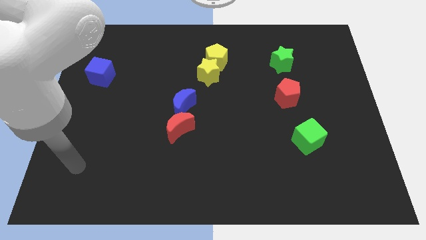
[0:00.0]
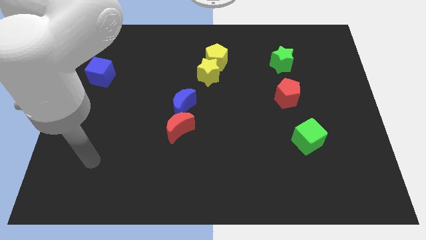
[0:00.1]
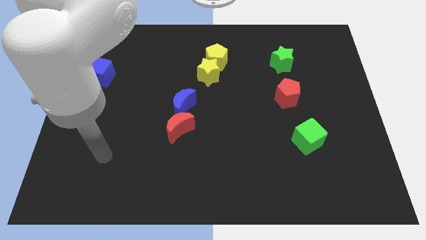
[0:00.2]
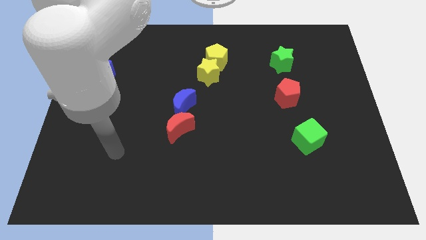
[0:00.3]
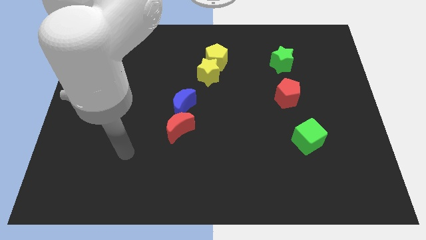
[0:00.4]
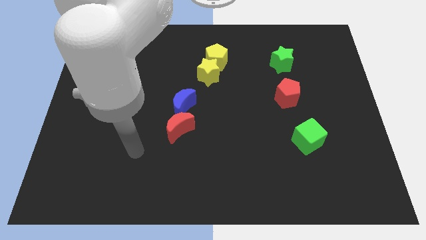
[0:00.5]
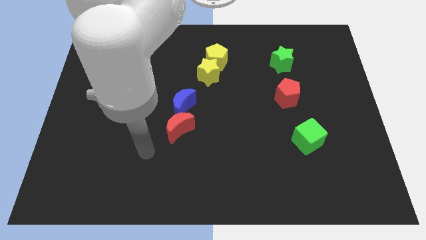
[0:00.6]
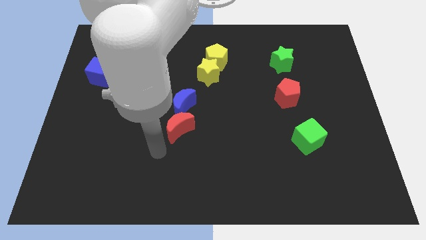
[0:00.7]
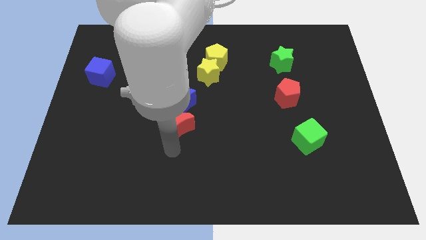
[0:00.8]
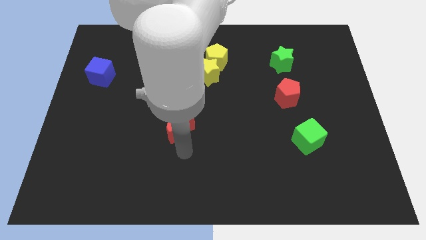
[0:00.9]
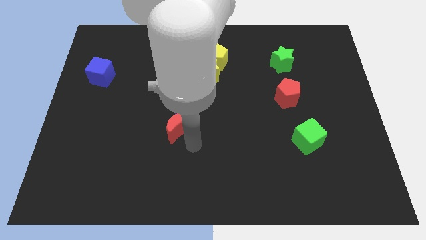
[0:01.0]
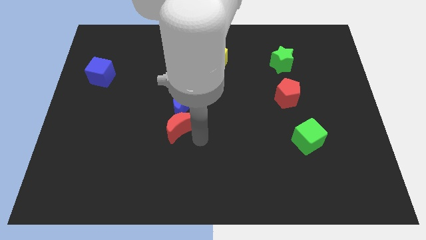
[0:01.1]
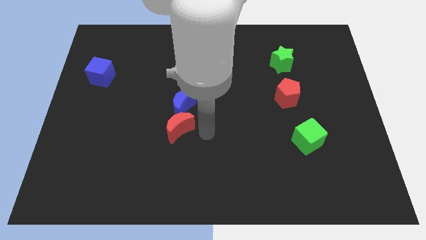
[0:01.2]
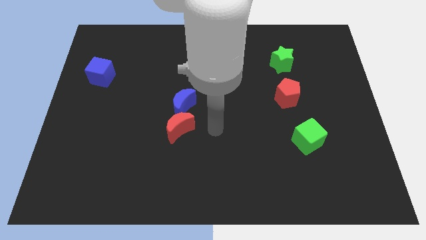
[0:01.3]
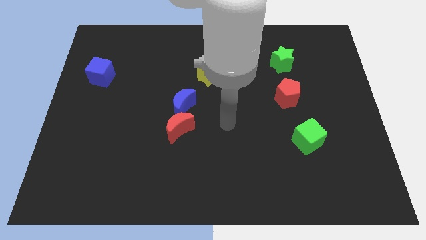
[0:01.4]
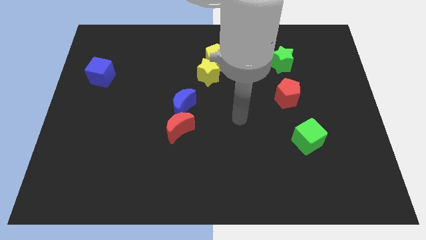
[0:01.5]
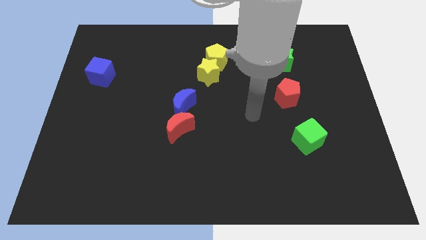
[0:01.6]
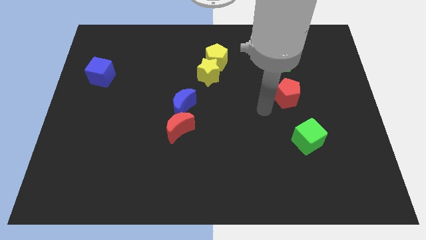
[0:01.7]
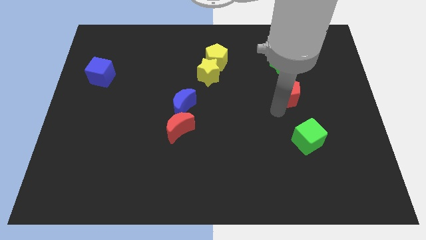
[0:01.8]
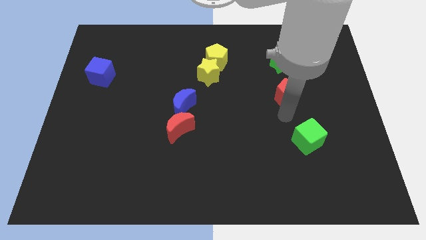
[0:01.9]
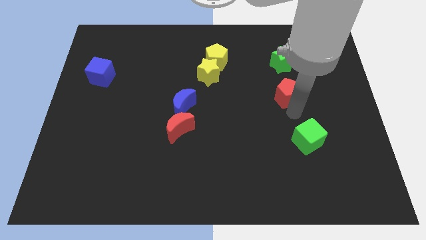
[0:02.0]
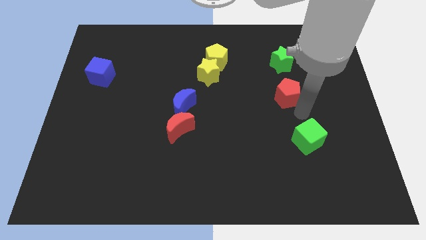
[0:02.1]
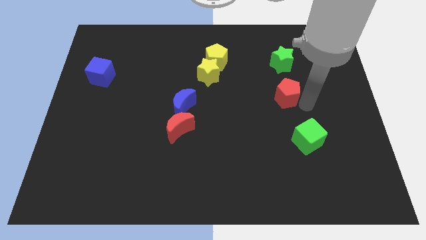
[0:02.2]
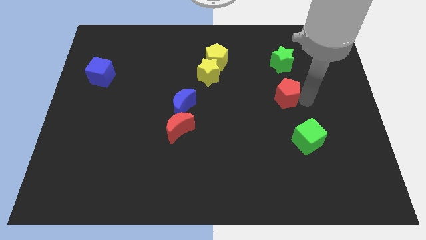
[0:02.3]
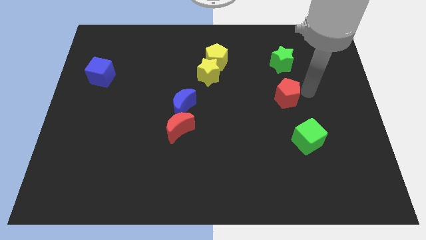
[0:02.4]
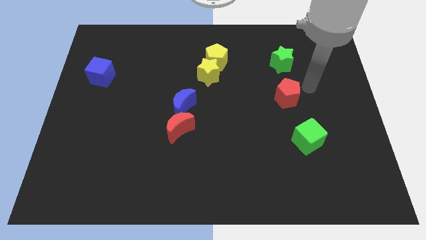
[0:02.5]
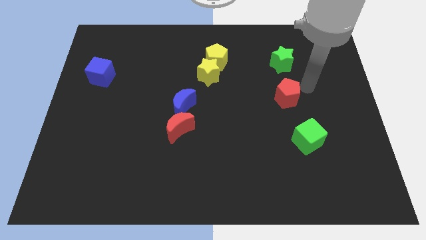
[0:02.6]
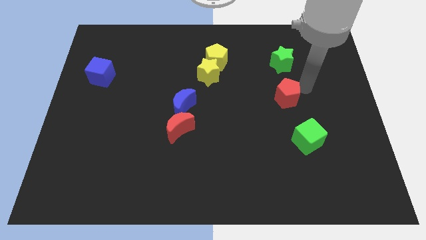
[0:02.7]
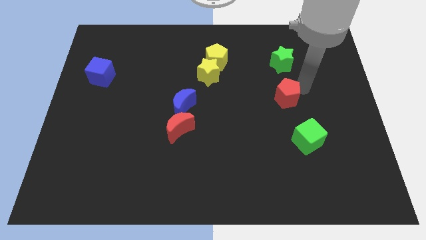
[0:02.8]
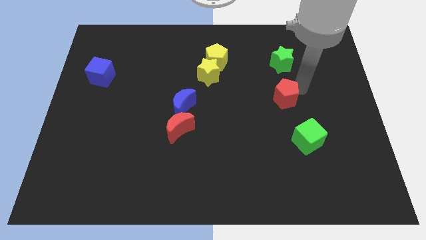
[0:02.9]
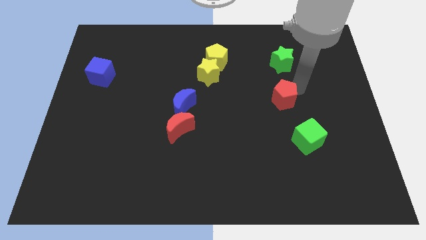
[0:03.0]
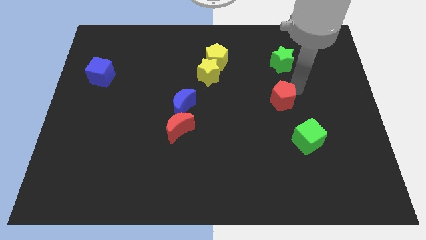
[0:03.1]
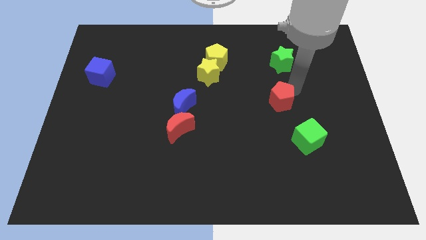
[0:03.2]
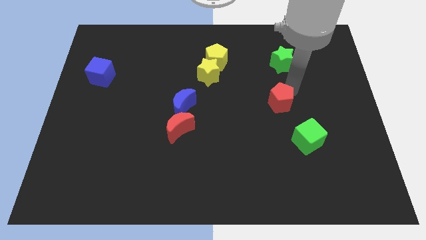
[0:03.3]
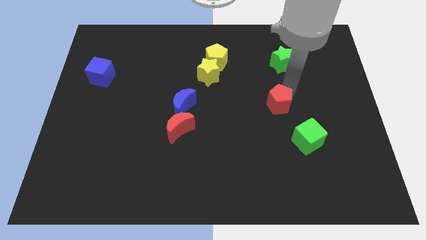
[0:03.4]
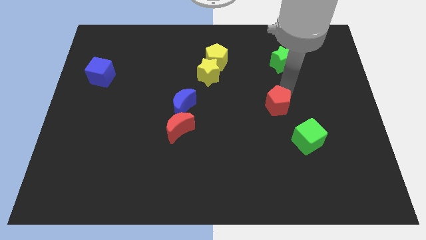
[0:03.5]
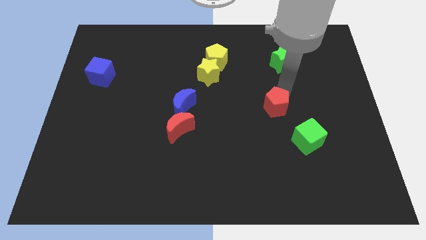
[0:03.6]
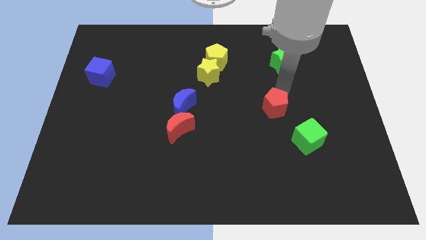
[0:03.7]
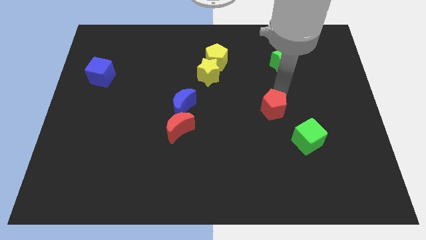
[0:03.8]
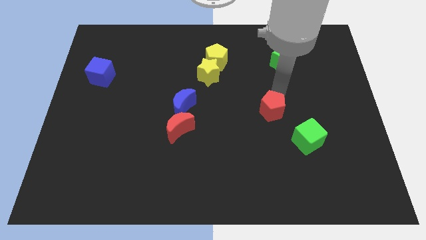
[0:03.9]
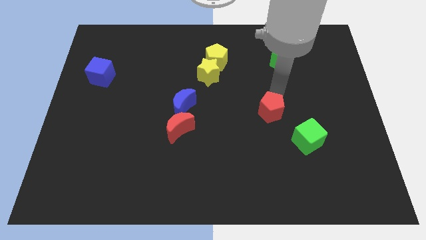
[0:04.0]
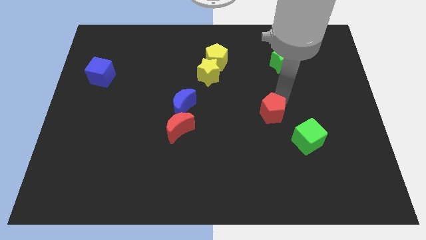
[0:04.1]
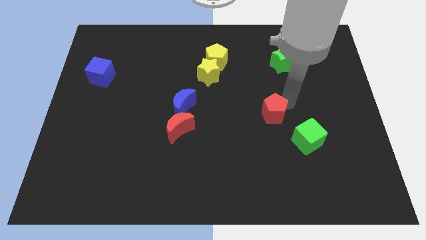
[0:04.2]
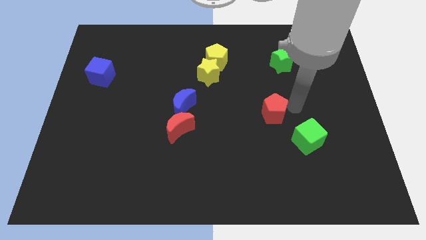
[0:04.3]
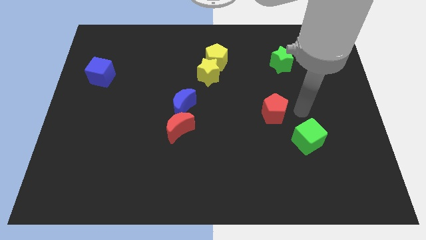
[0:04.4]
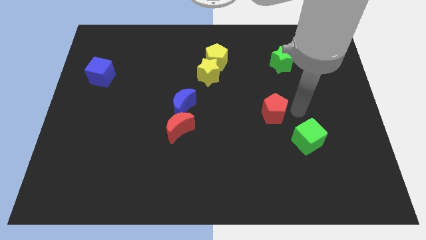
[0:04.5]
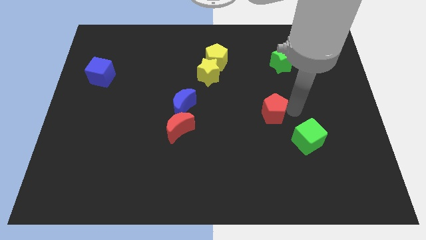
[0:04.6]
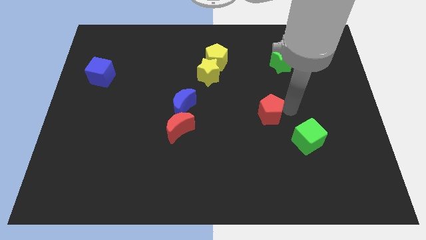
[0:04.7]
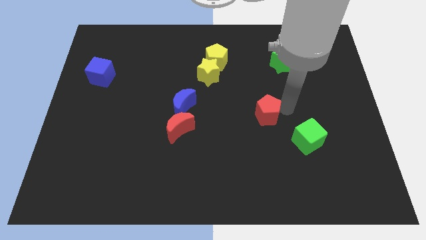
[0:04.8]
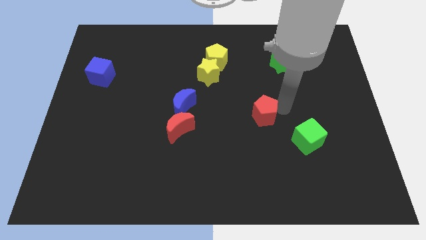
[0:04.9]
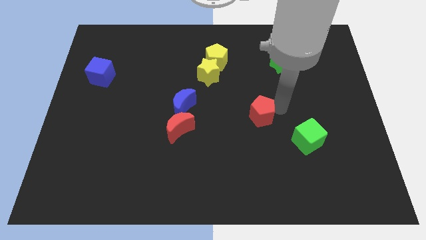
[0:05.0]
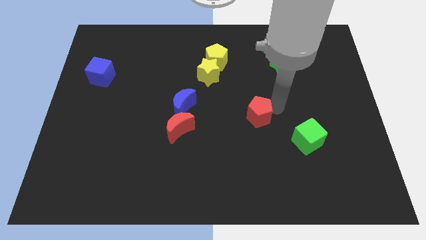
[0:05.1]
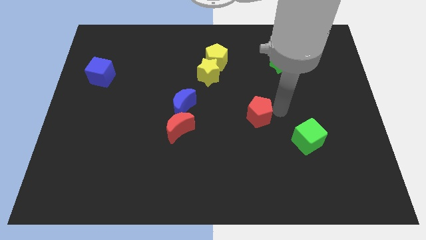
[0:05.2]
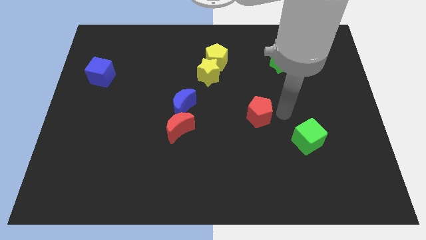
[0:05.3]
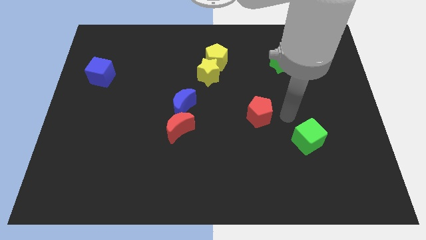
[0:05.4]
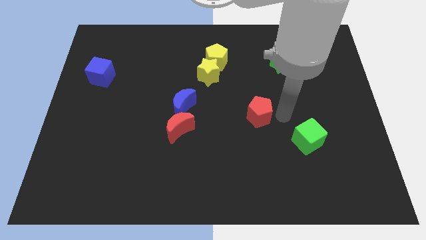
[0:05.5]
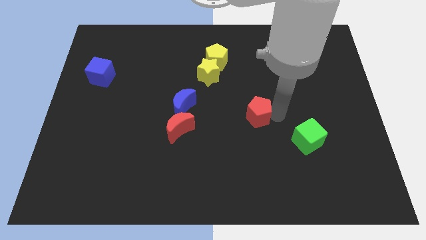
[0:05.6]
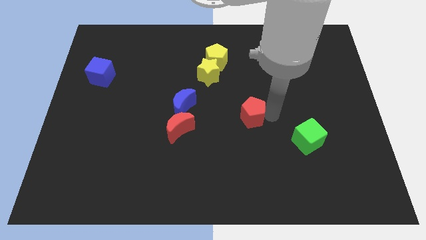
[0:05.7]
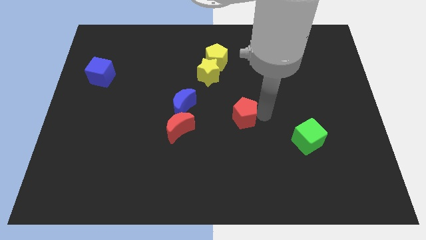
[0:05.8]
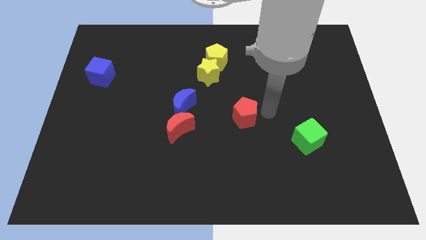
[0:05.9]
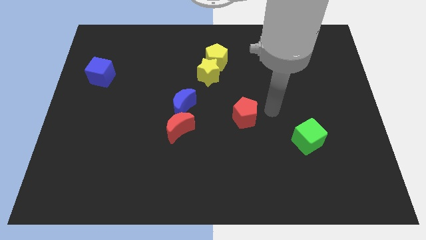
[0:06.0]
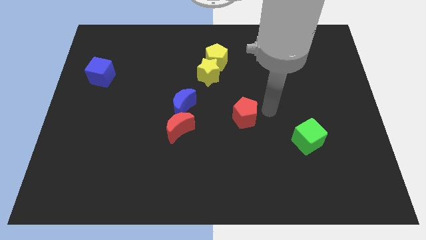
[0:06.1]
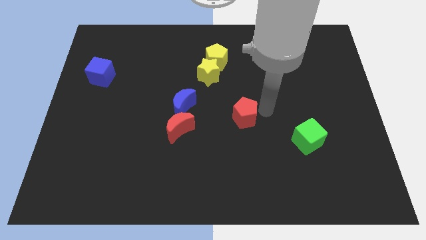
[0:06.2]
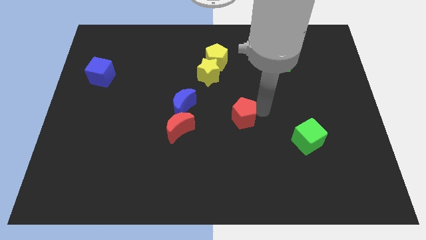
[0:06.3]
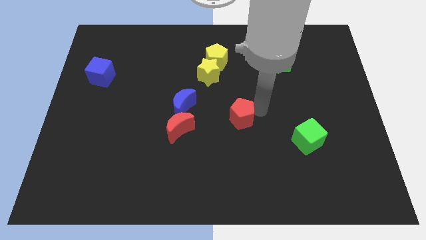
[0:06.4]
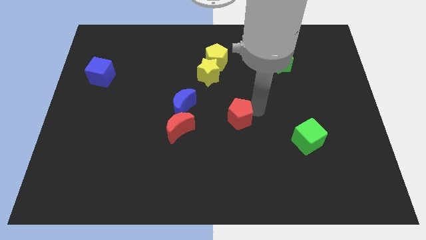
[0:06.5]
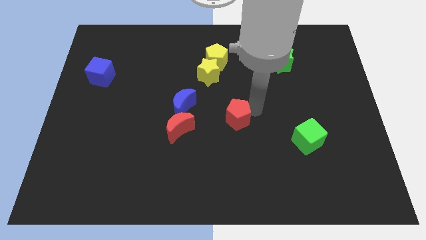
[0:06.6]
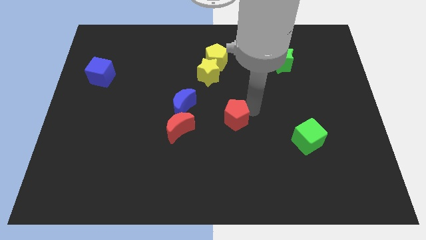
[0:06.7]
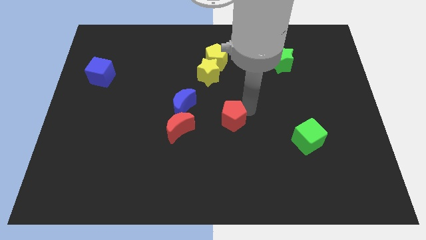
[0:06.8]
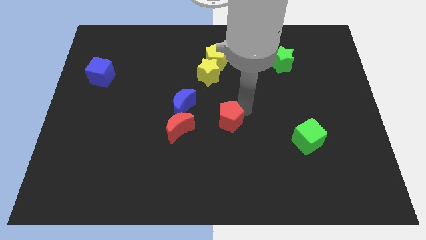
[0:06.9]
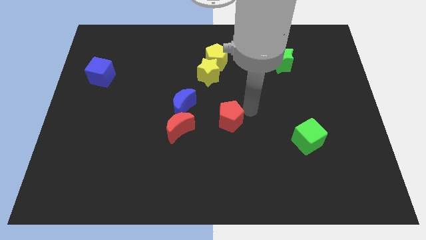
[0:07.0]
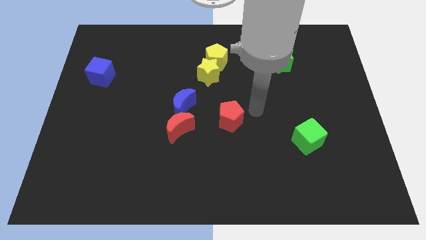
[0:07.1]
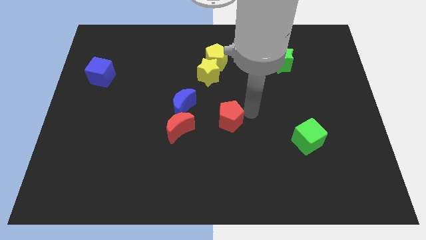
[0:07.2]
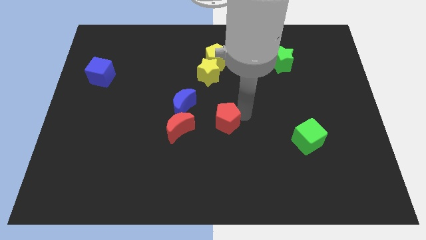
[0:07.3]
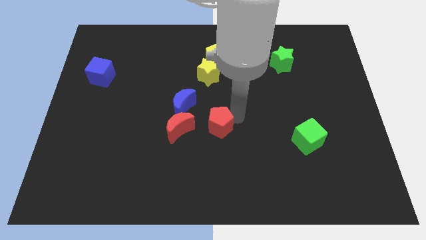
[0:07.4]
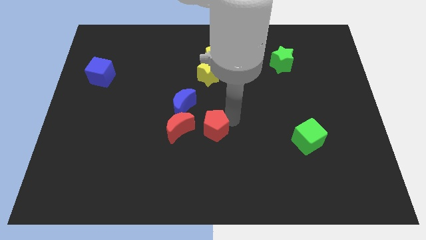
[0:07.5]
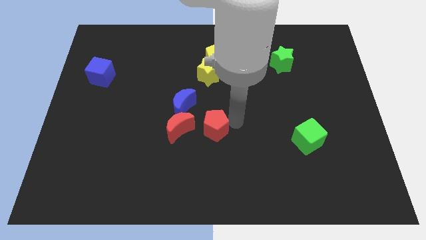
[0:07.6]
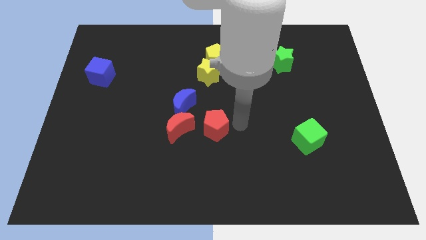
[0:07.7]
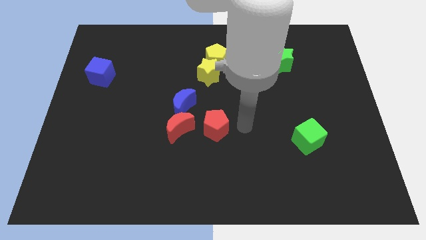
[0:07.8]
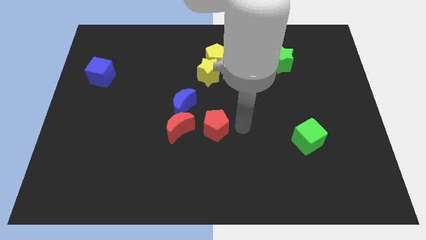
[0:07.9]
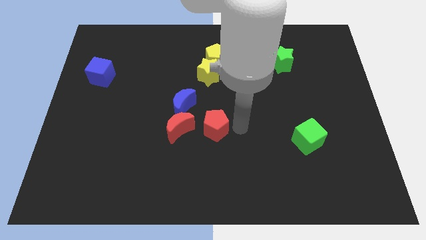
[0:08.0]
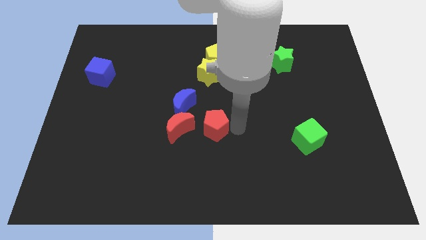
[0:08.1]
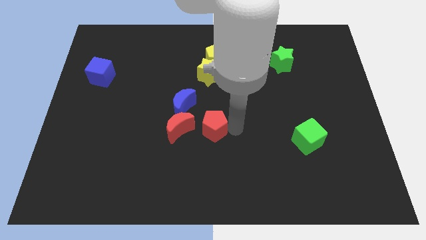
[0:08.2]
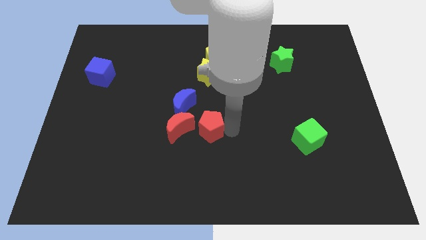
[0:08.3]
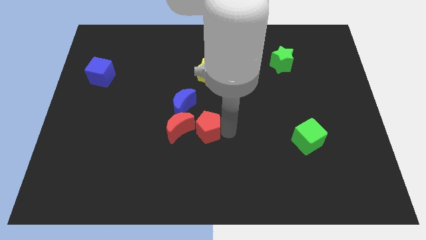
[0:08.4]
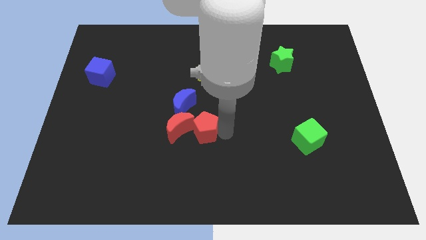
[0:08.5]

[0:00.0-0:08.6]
slide the red pentagon close to the red moon
